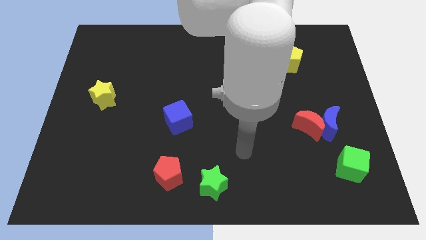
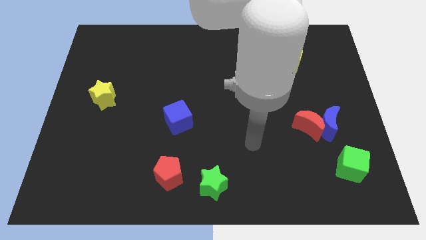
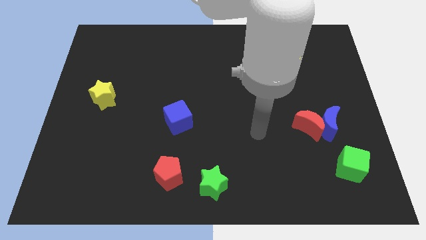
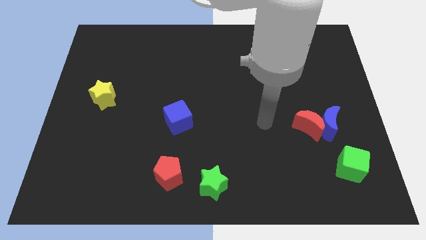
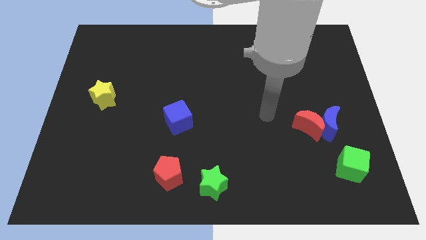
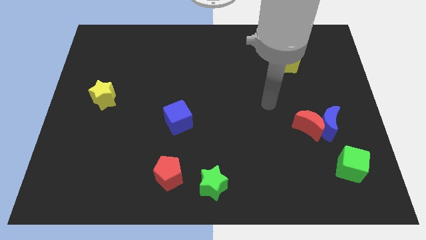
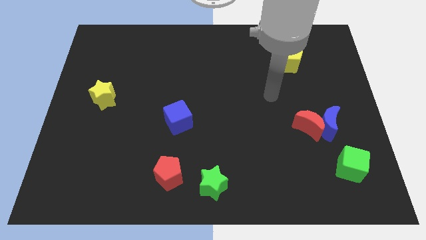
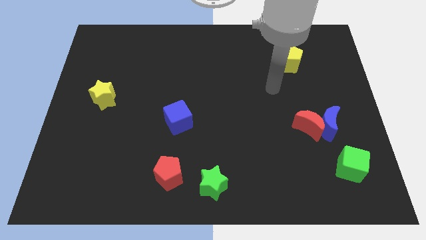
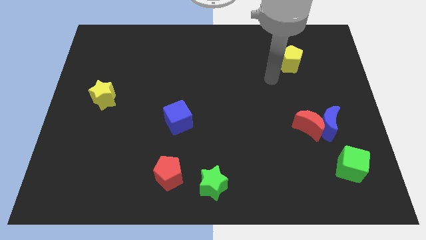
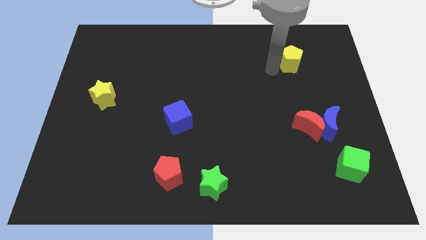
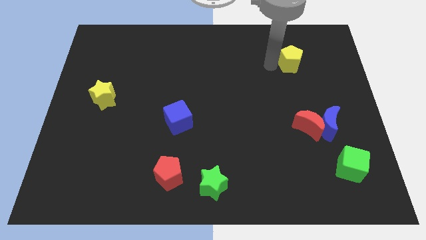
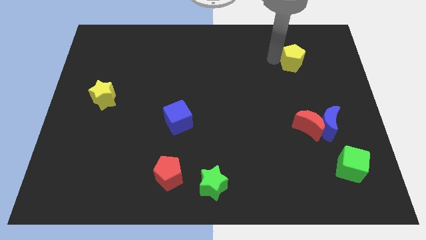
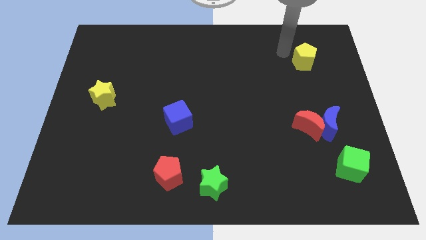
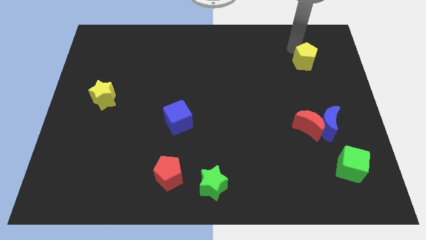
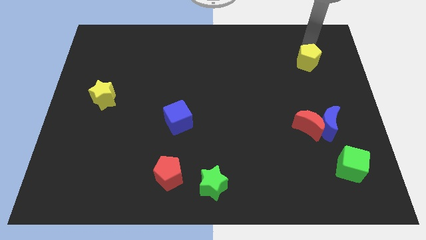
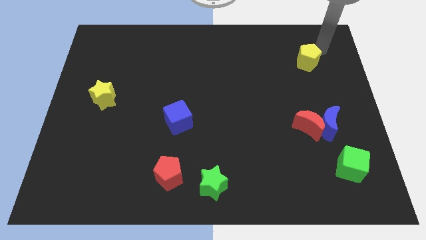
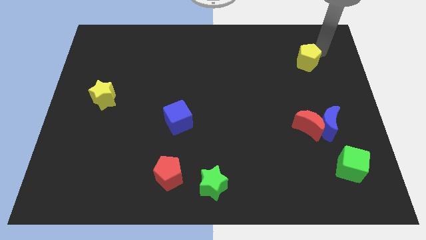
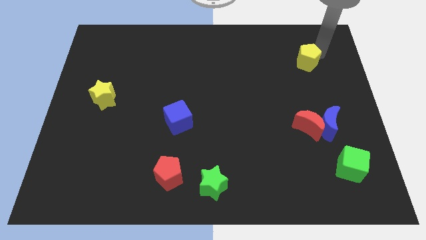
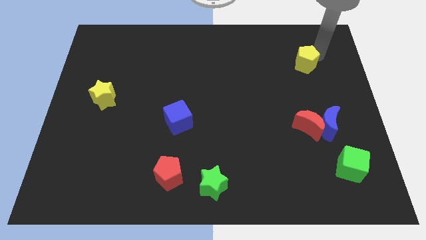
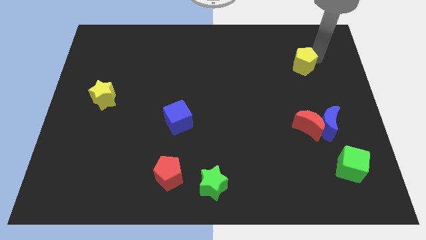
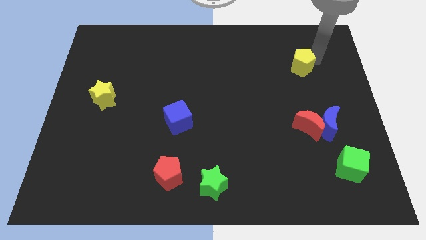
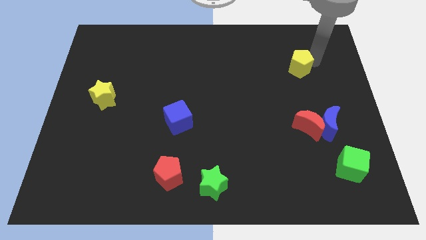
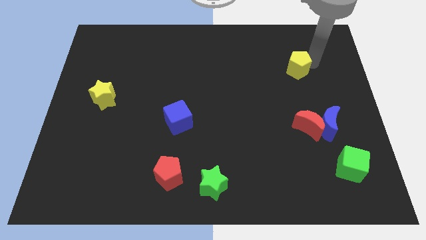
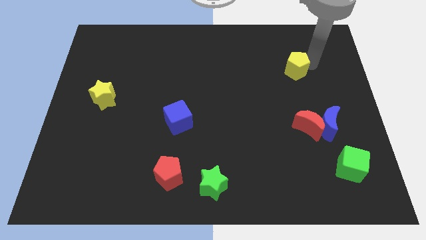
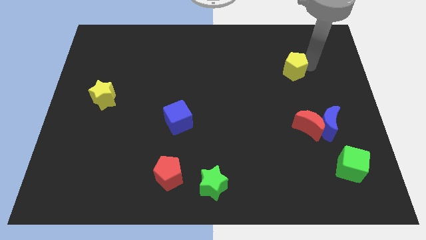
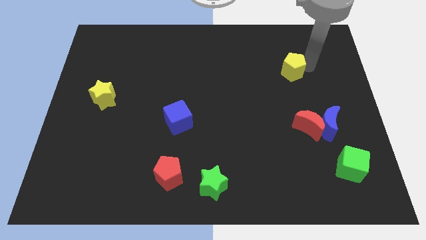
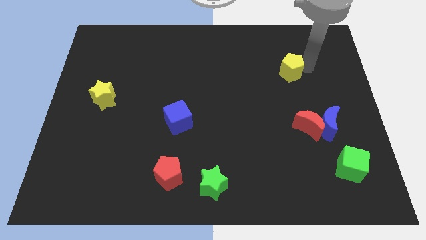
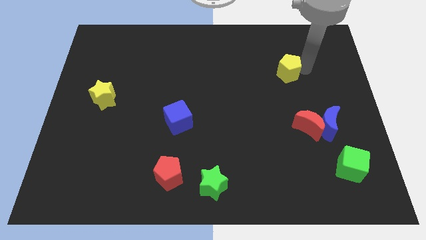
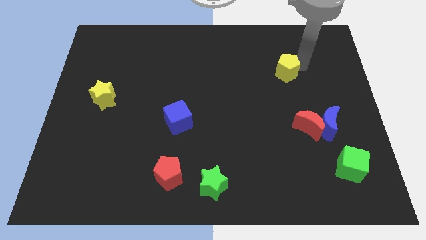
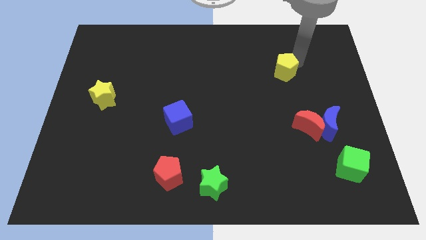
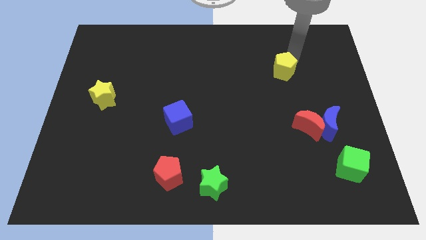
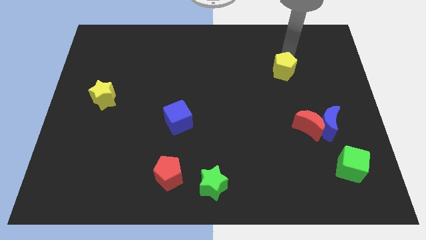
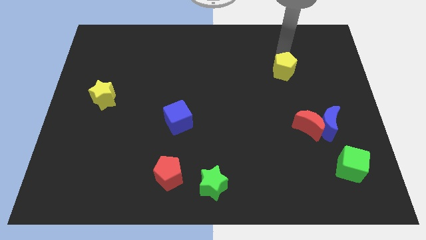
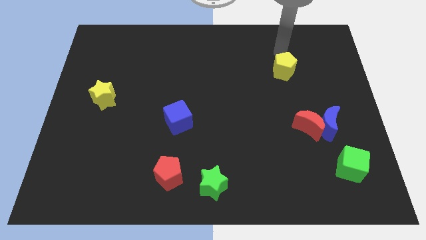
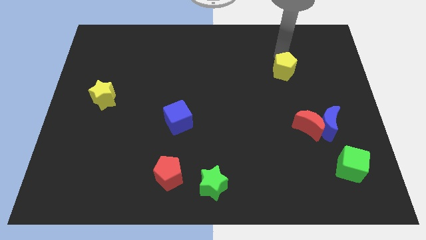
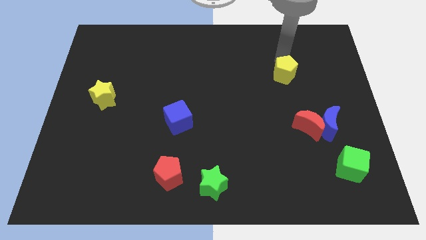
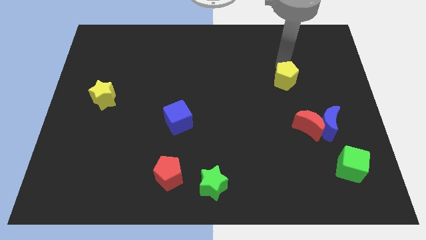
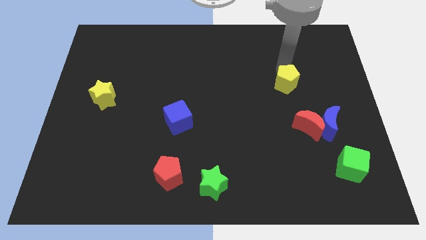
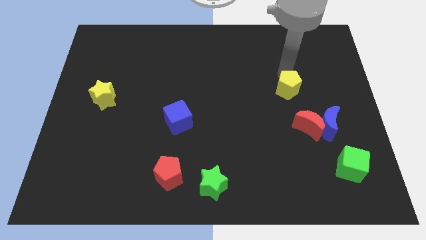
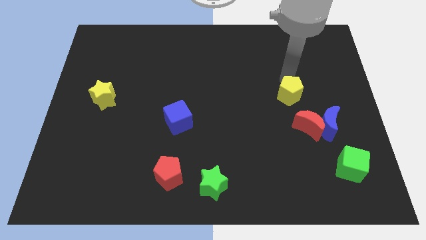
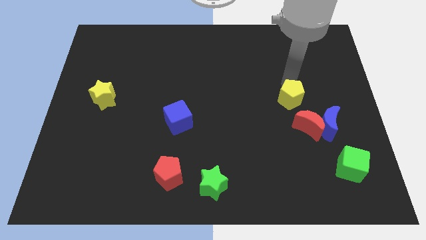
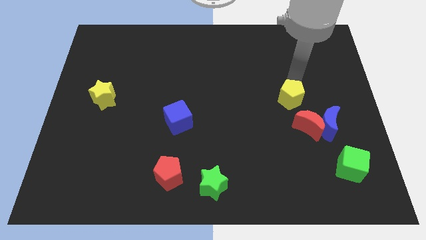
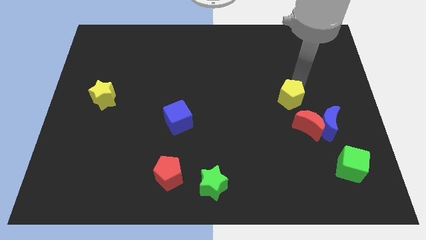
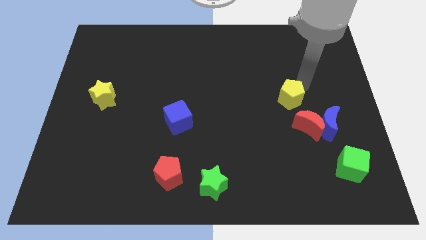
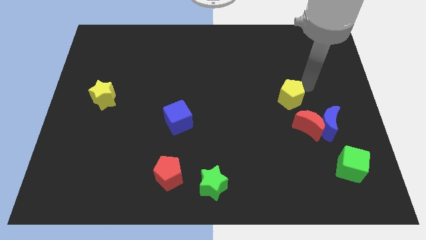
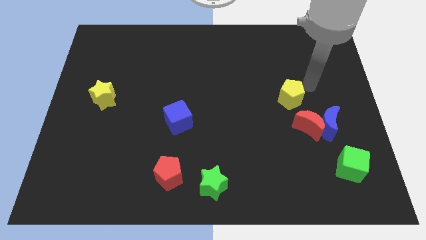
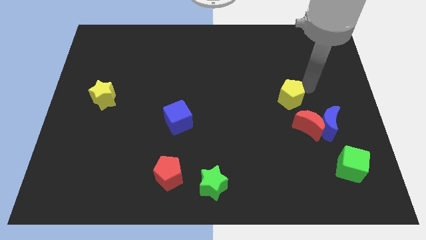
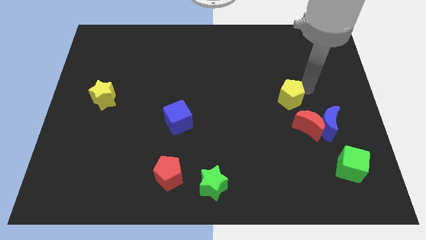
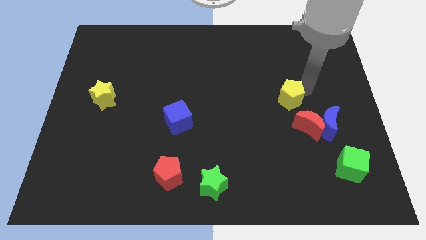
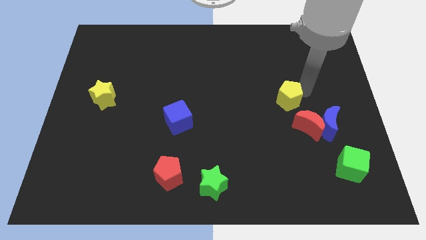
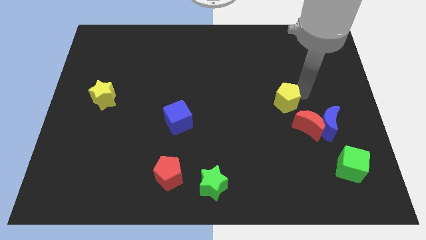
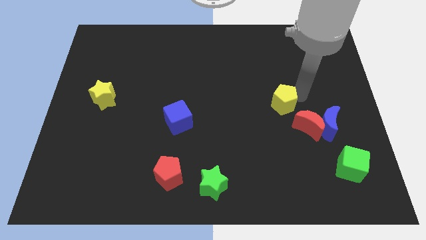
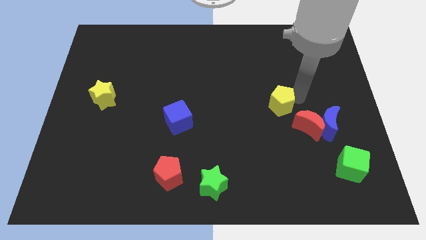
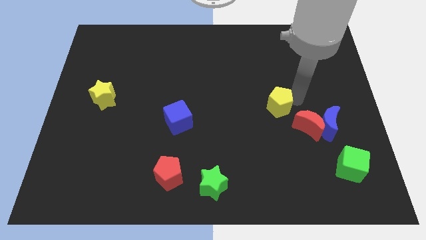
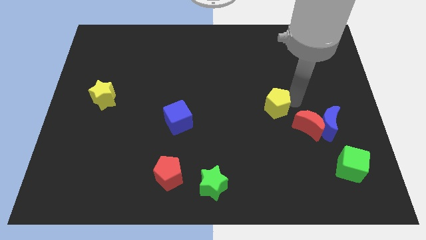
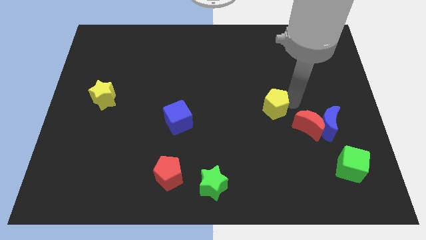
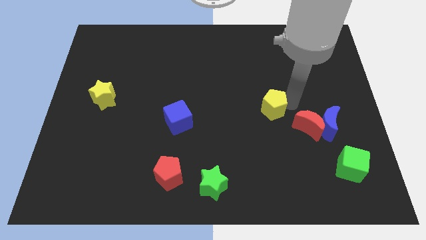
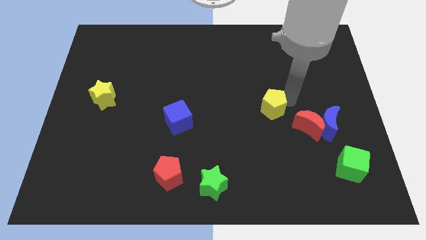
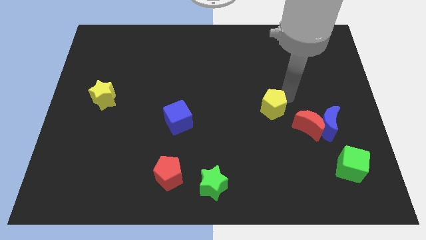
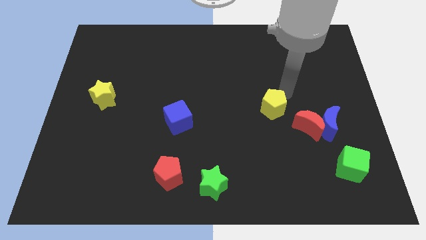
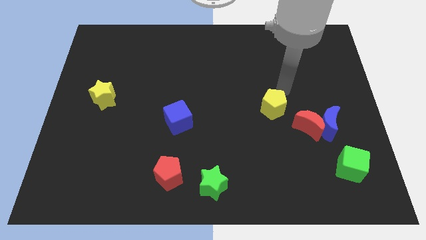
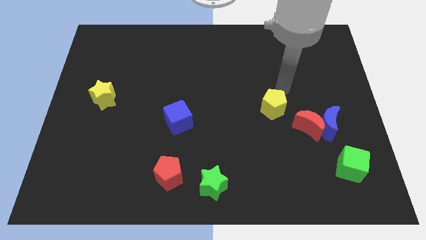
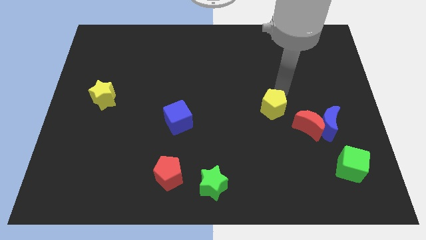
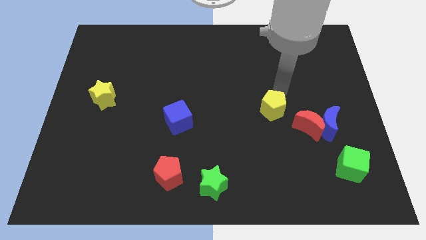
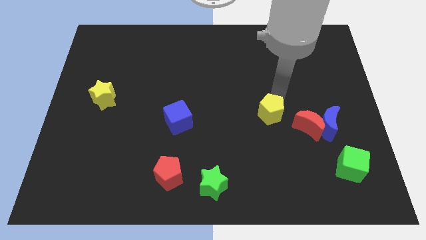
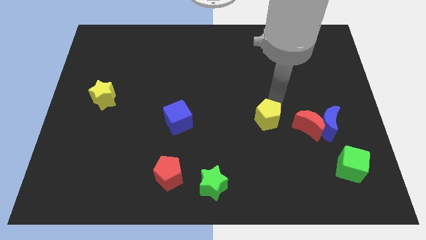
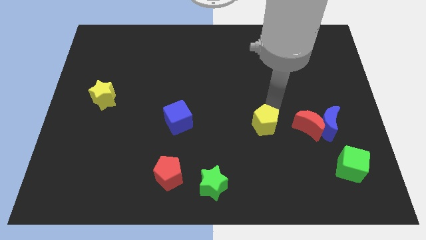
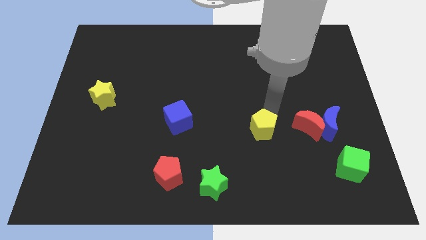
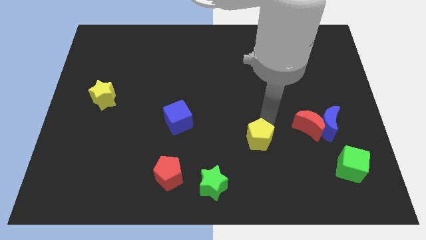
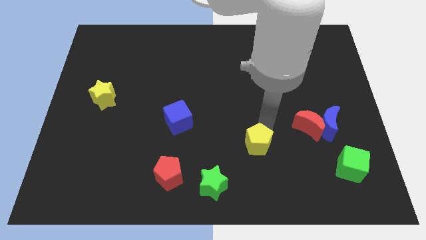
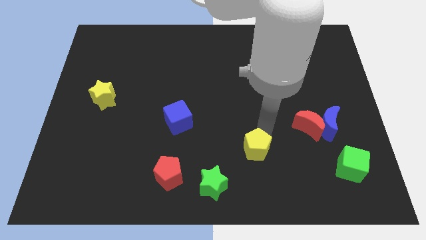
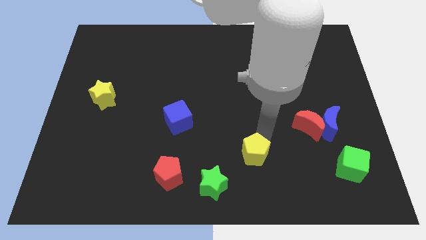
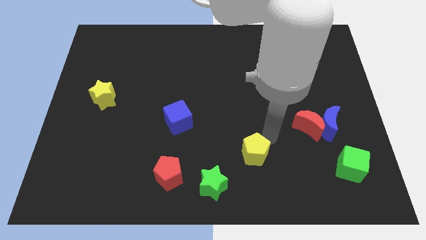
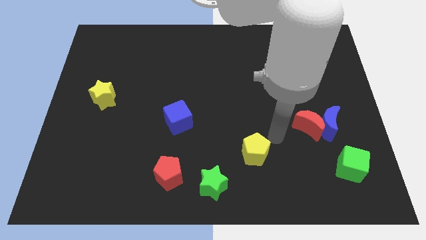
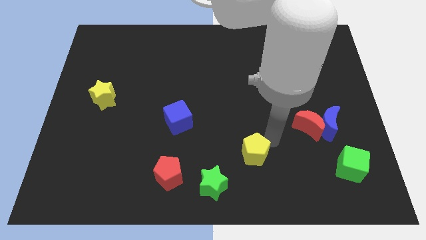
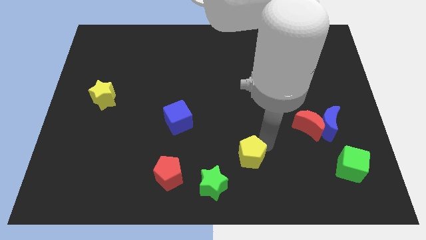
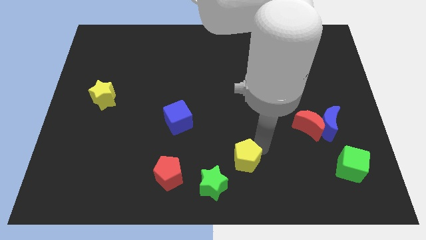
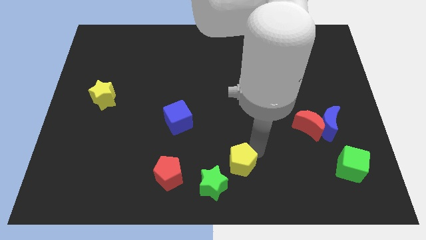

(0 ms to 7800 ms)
move the yellow pentagon just right of the red pentagon
